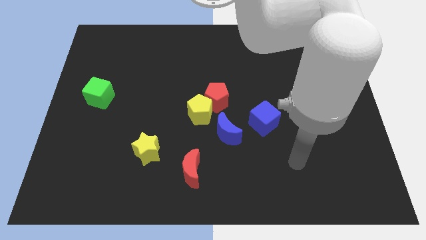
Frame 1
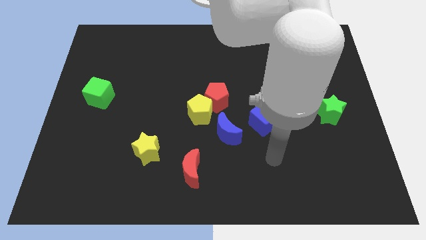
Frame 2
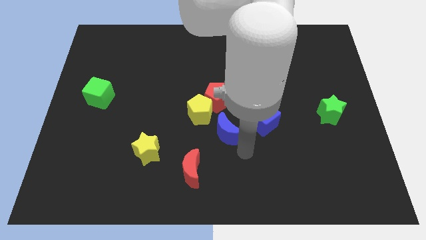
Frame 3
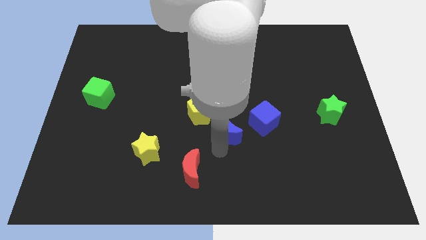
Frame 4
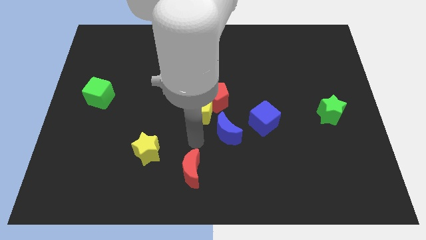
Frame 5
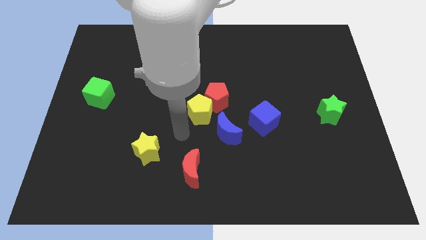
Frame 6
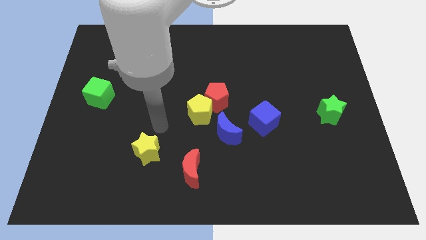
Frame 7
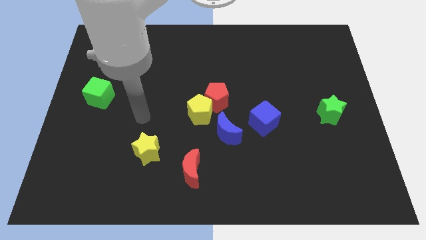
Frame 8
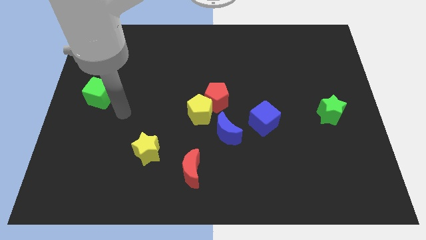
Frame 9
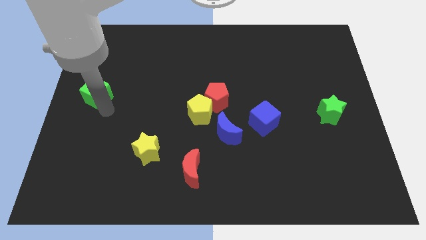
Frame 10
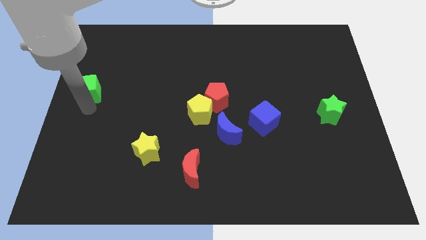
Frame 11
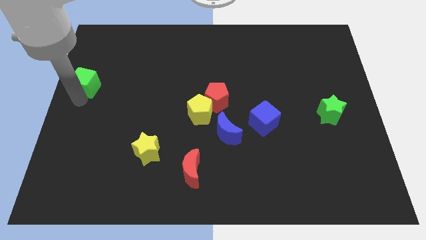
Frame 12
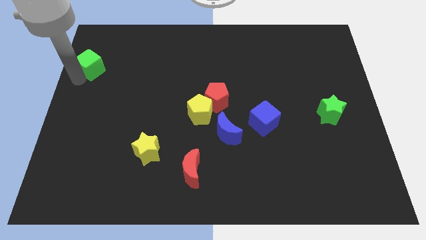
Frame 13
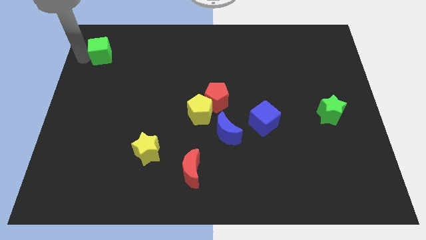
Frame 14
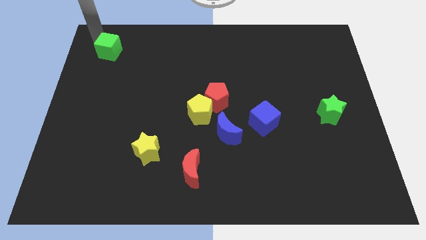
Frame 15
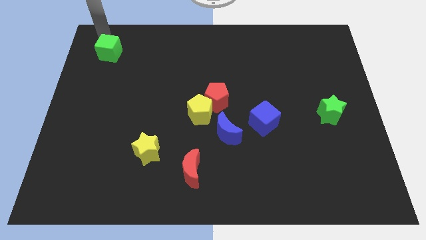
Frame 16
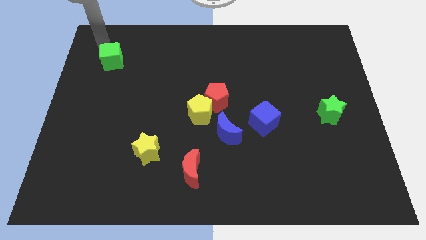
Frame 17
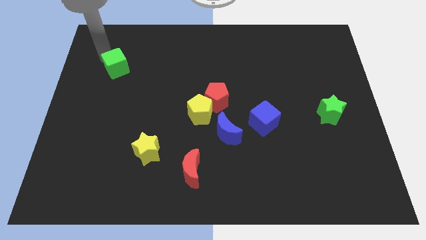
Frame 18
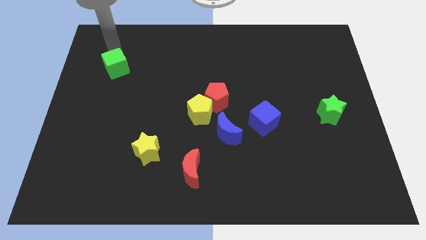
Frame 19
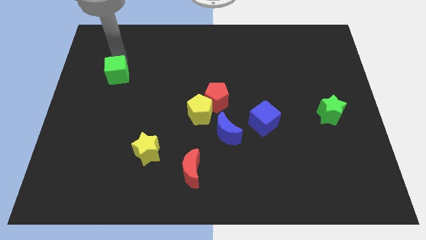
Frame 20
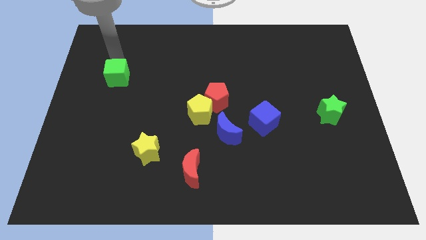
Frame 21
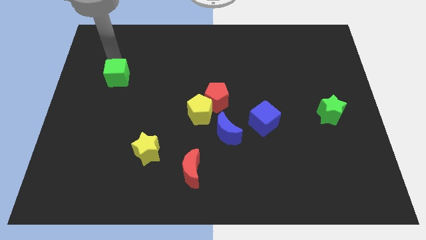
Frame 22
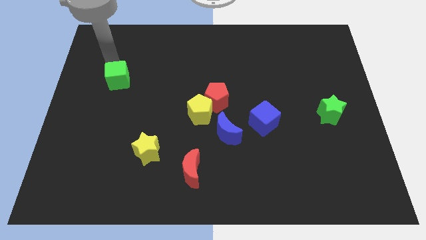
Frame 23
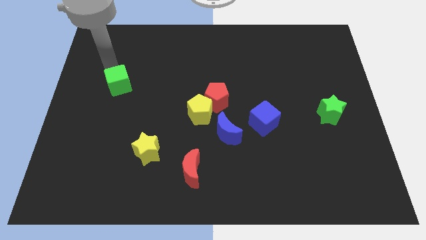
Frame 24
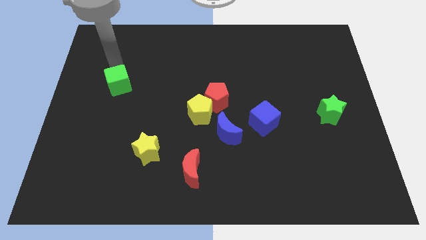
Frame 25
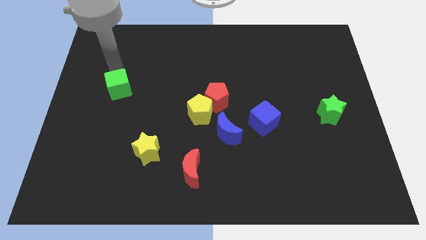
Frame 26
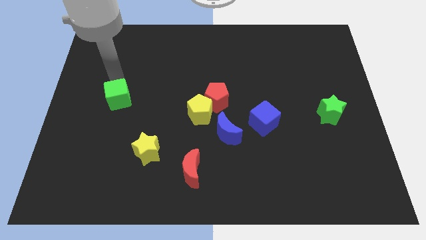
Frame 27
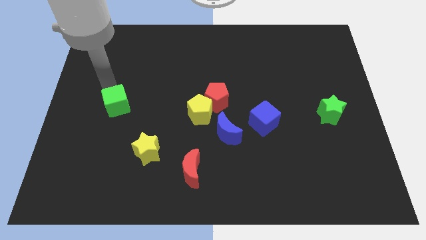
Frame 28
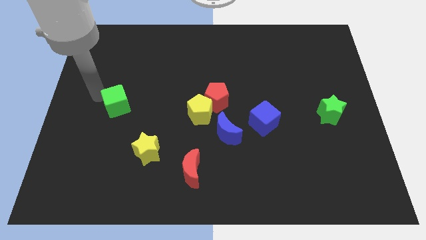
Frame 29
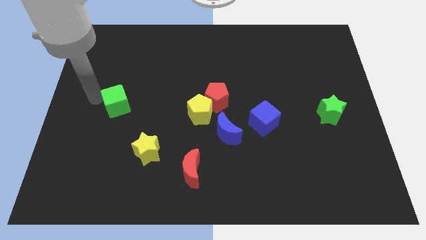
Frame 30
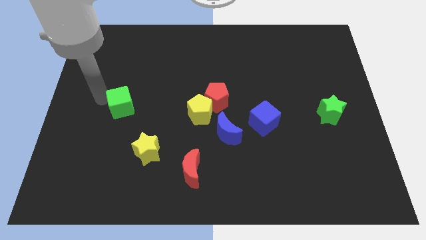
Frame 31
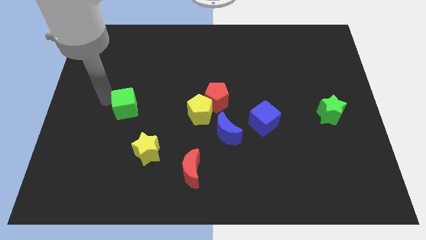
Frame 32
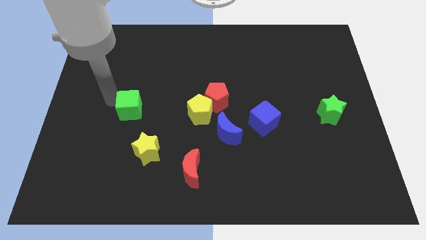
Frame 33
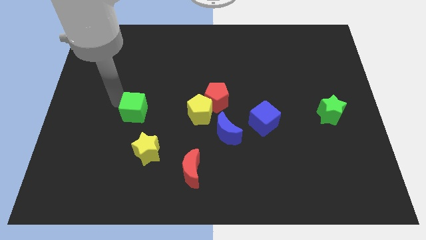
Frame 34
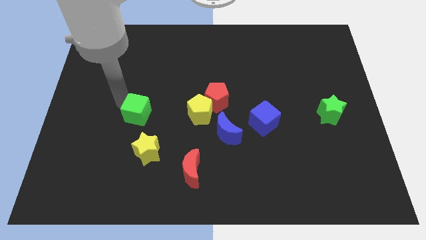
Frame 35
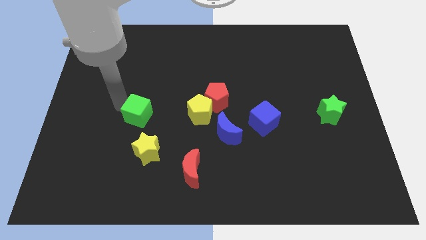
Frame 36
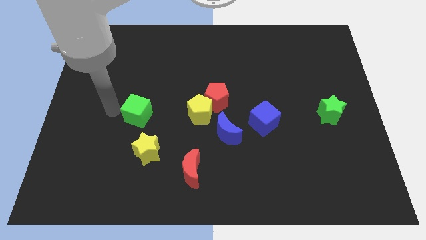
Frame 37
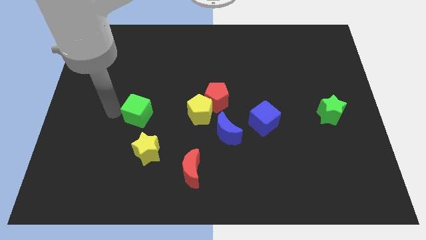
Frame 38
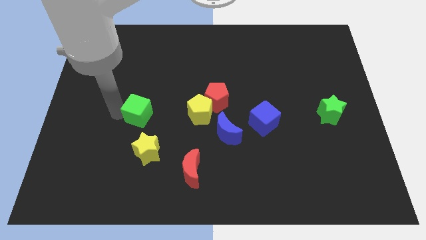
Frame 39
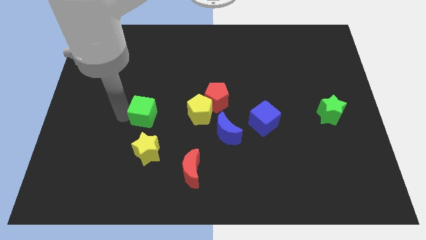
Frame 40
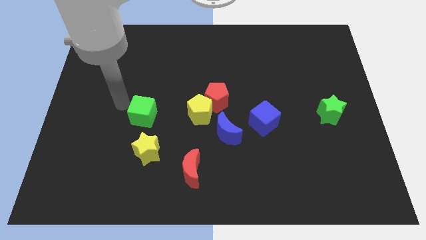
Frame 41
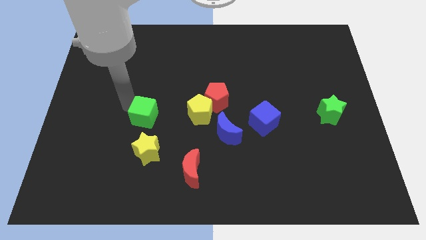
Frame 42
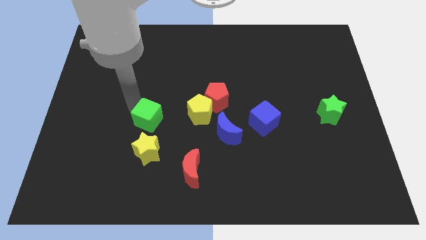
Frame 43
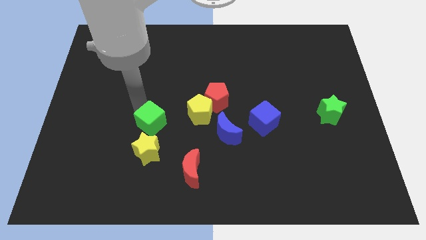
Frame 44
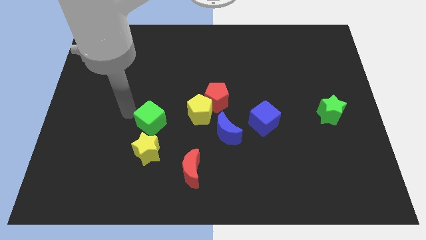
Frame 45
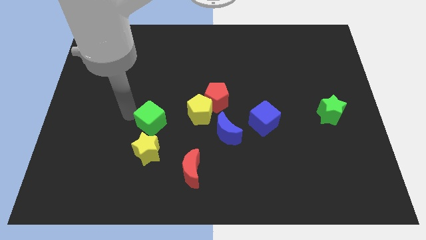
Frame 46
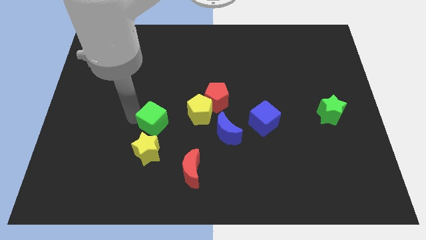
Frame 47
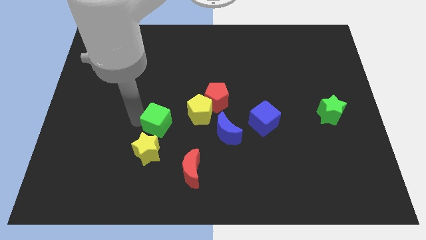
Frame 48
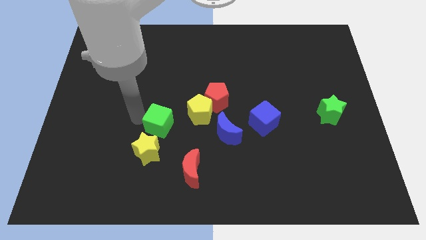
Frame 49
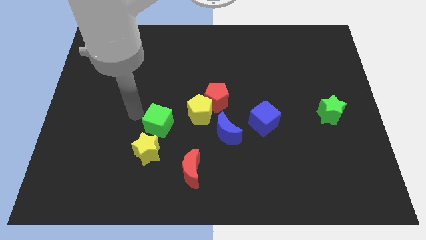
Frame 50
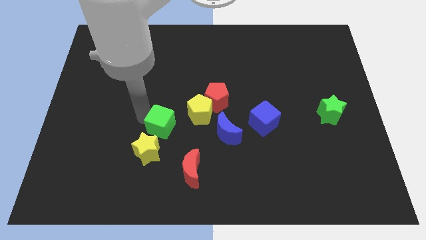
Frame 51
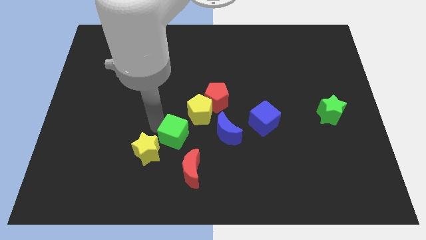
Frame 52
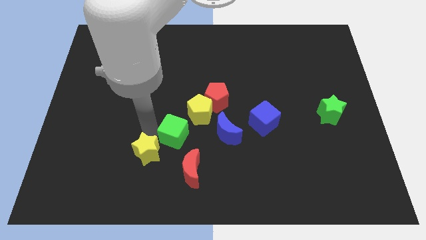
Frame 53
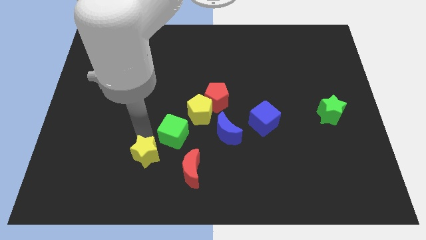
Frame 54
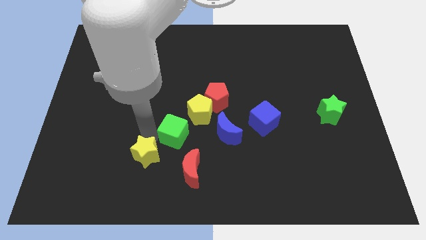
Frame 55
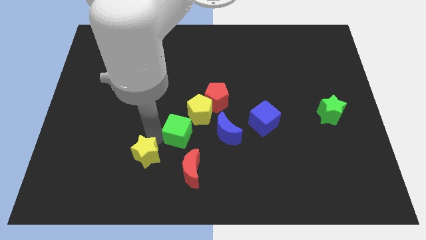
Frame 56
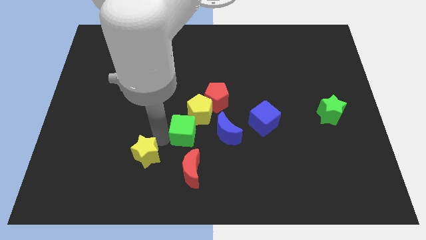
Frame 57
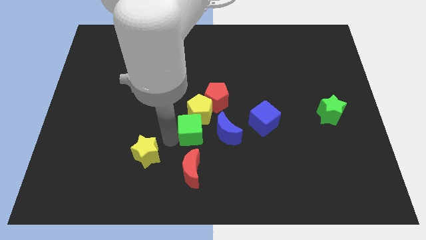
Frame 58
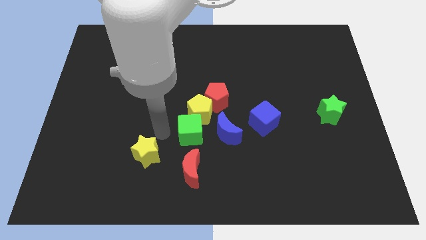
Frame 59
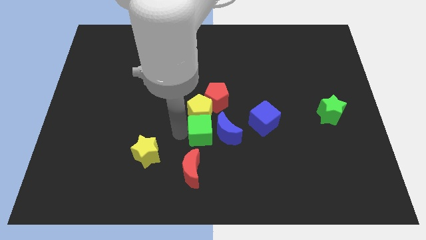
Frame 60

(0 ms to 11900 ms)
move the green cube towards the blue moon

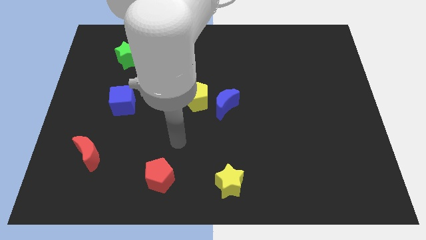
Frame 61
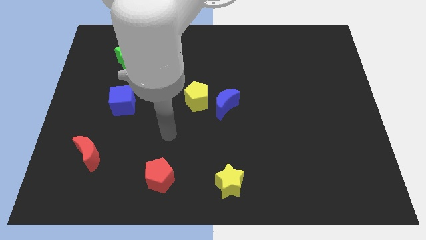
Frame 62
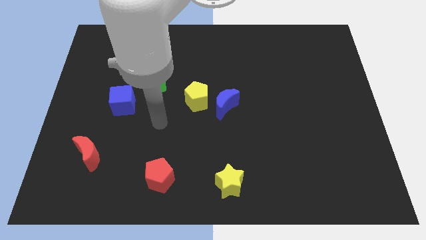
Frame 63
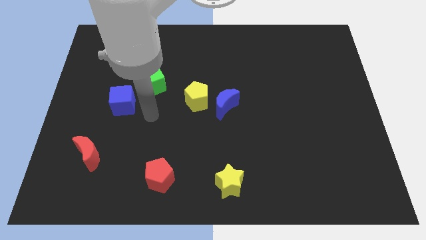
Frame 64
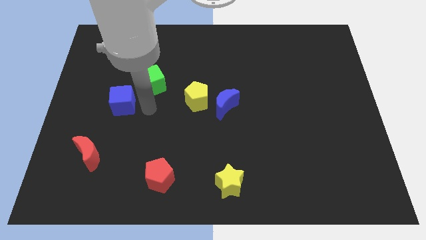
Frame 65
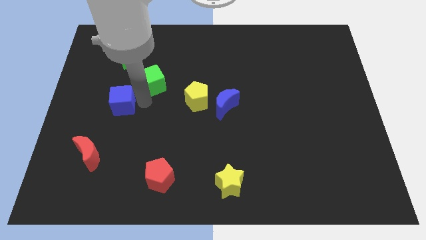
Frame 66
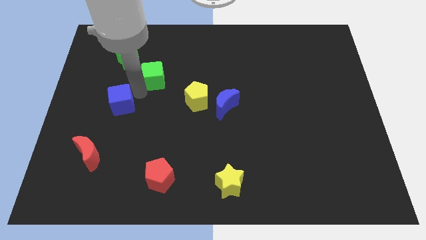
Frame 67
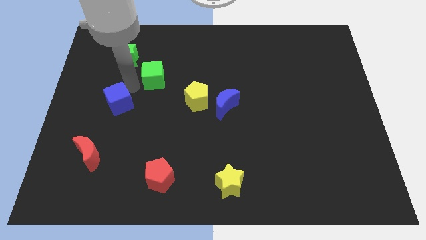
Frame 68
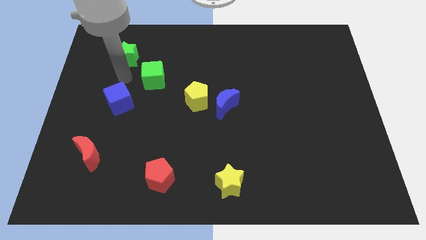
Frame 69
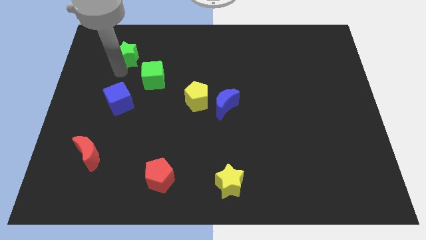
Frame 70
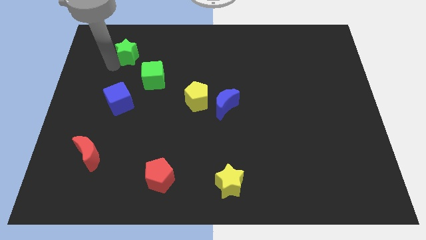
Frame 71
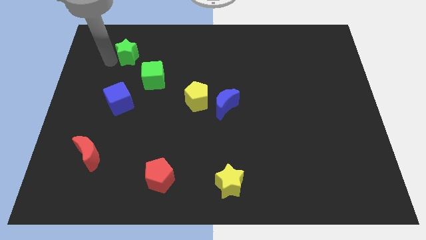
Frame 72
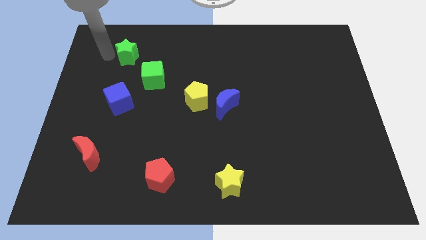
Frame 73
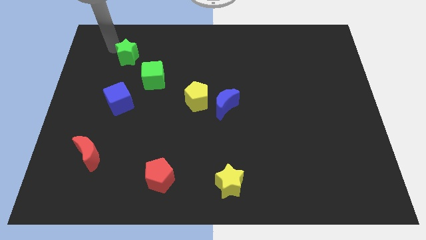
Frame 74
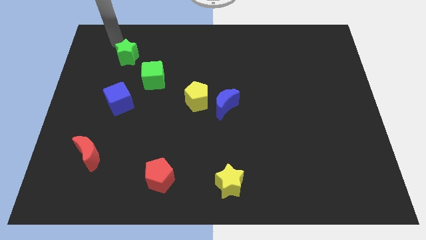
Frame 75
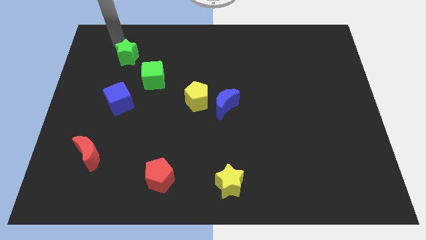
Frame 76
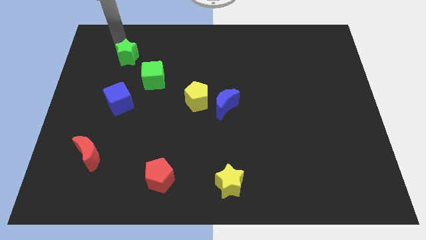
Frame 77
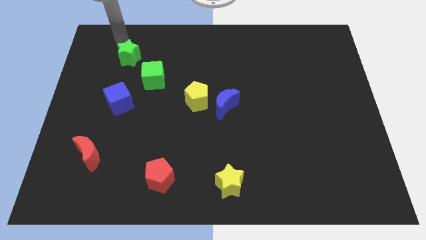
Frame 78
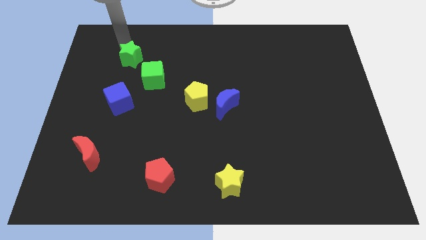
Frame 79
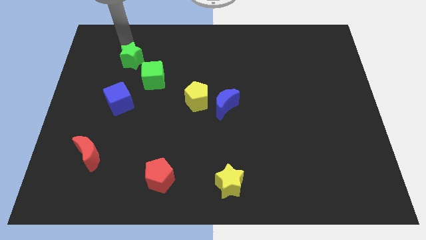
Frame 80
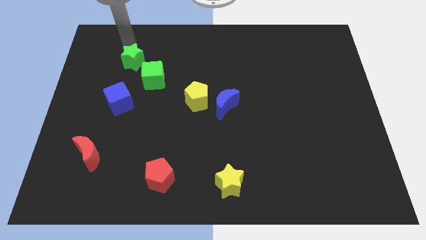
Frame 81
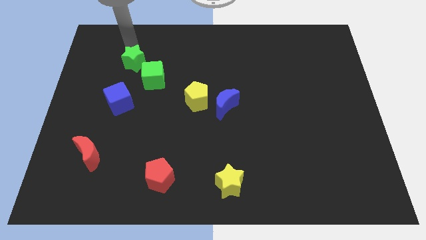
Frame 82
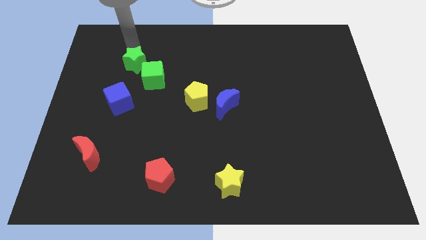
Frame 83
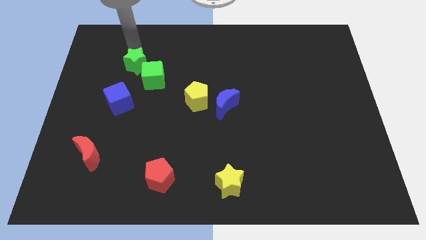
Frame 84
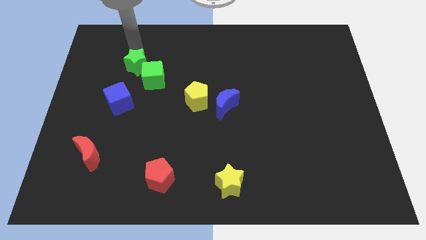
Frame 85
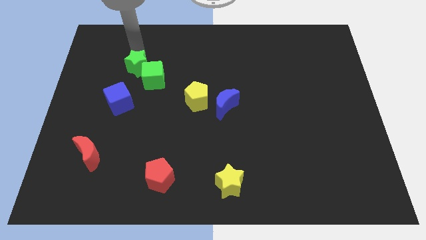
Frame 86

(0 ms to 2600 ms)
slide the green star to the green cube
